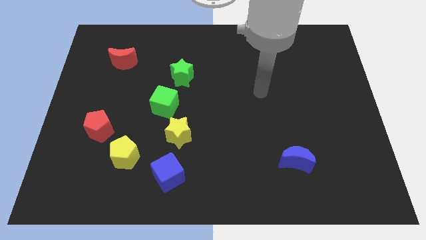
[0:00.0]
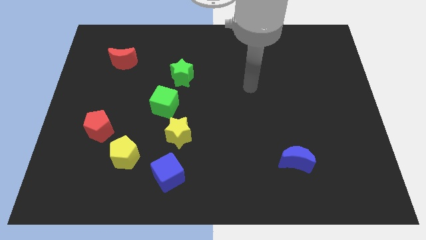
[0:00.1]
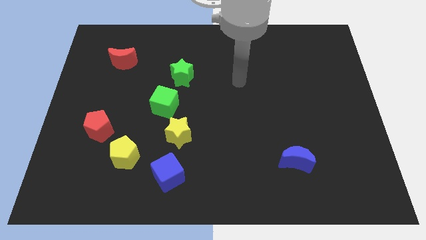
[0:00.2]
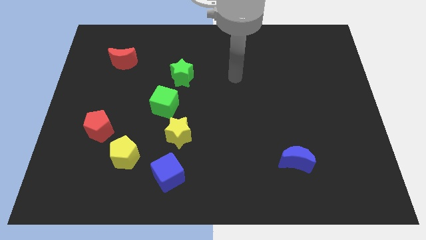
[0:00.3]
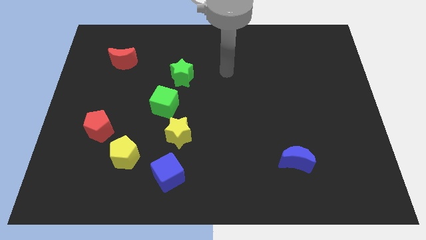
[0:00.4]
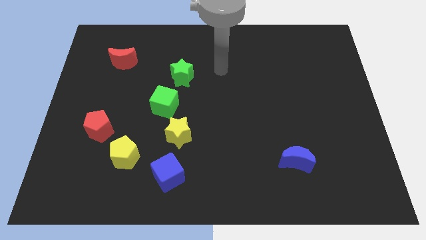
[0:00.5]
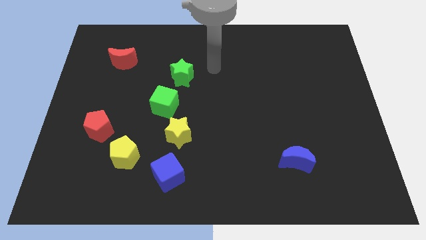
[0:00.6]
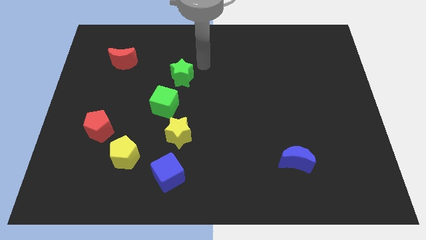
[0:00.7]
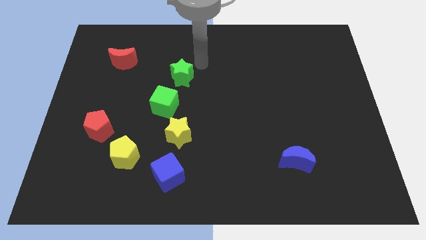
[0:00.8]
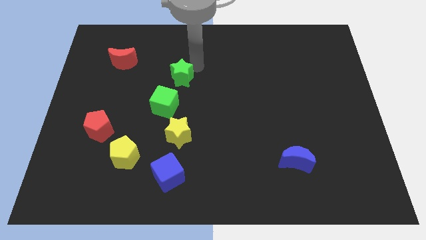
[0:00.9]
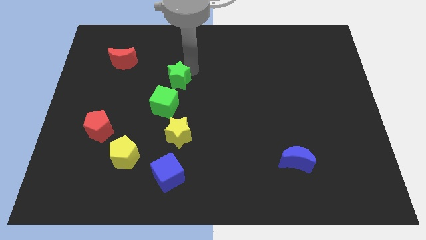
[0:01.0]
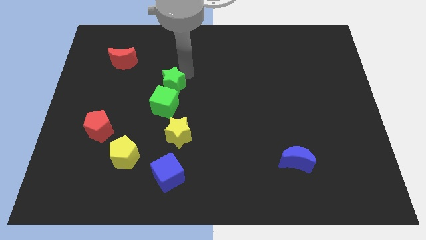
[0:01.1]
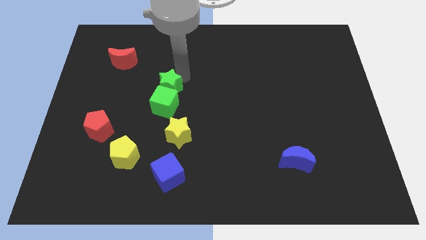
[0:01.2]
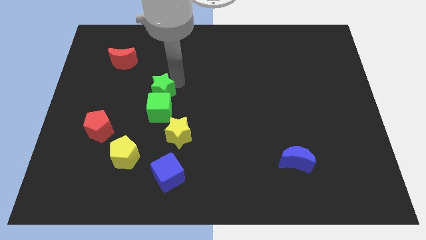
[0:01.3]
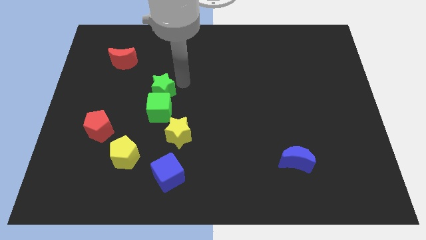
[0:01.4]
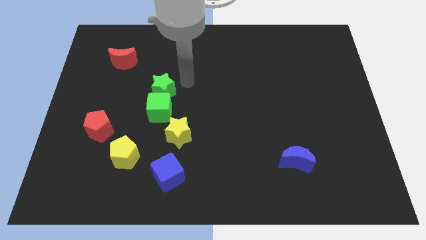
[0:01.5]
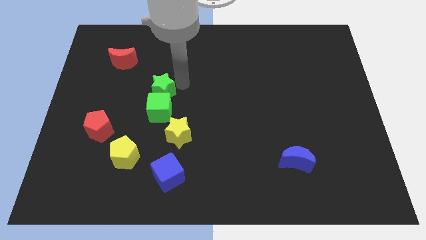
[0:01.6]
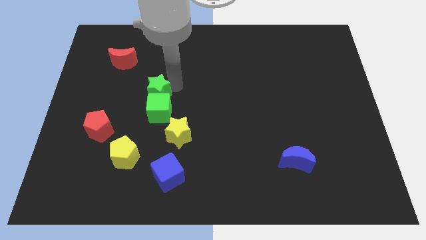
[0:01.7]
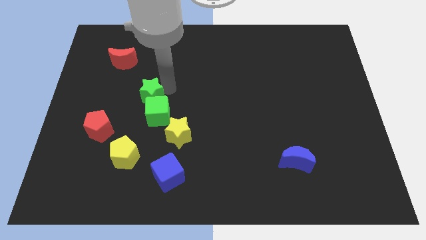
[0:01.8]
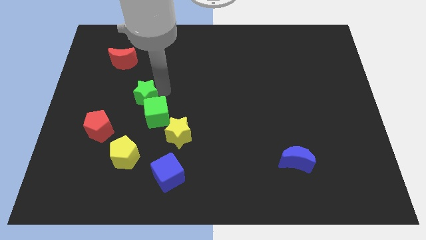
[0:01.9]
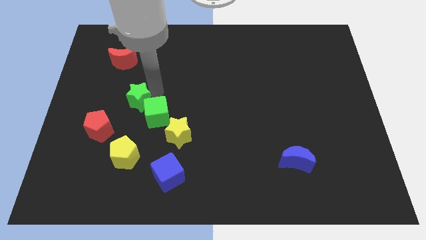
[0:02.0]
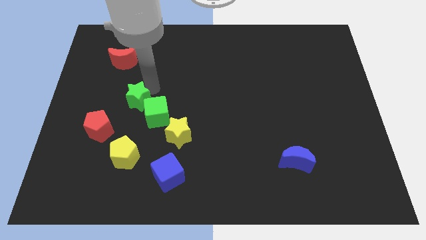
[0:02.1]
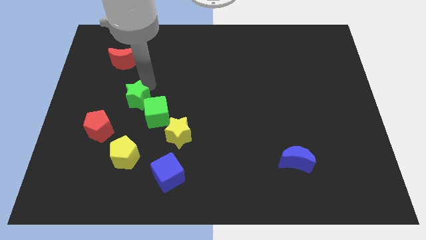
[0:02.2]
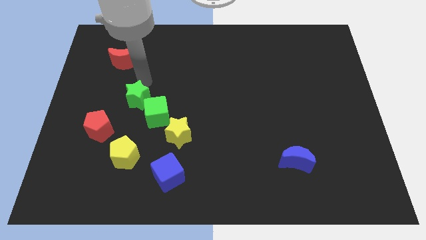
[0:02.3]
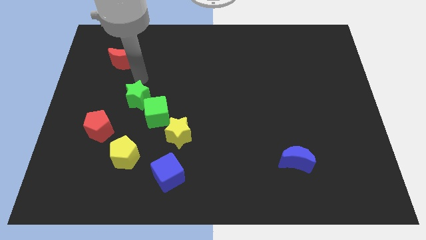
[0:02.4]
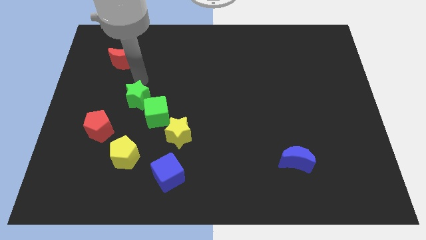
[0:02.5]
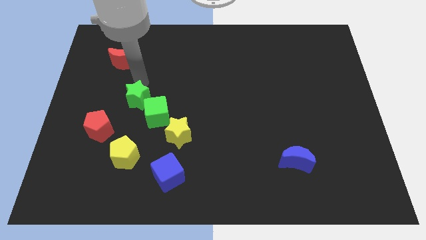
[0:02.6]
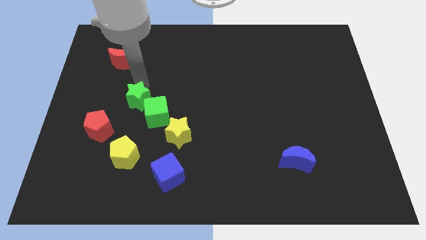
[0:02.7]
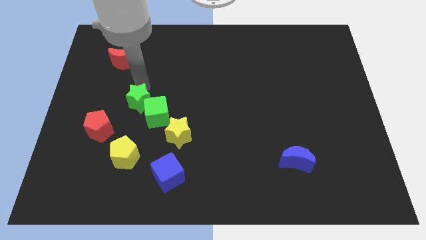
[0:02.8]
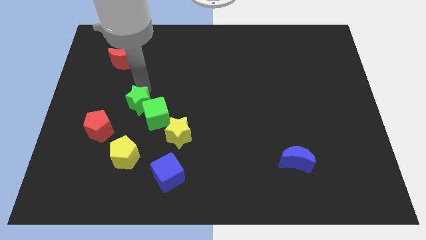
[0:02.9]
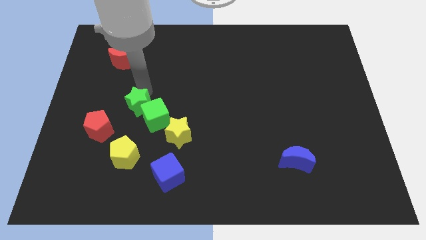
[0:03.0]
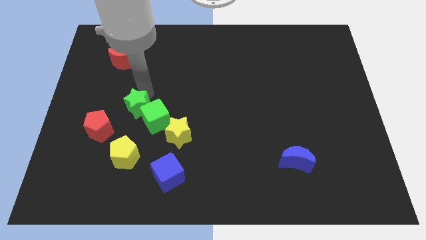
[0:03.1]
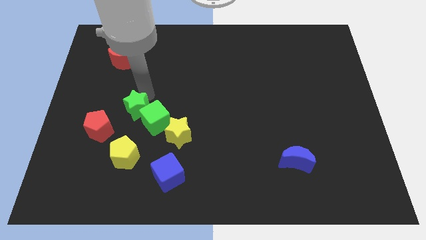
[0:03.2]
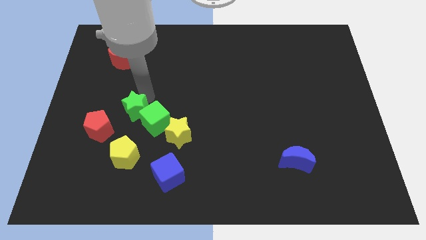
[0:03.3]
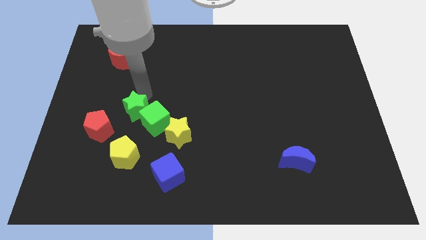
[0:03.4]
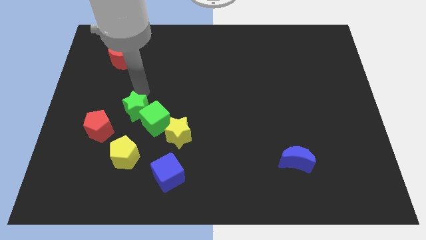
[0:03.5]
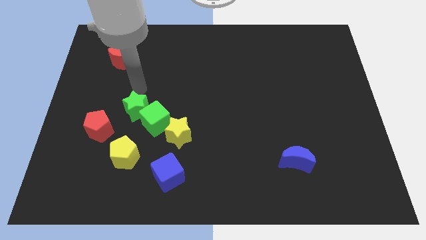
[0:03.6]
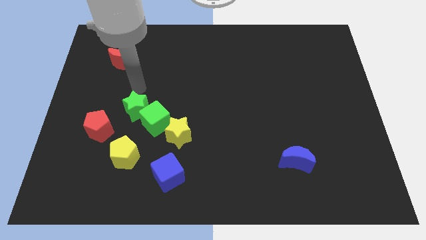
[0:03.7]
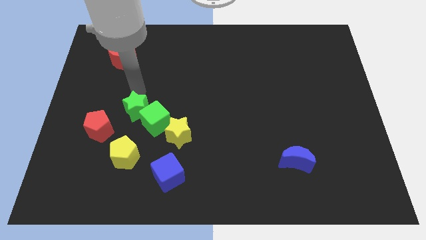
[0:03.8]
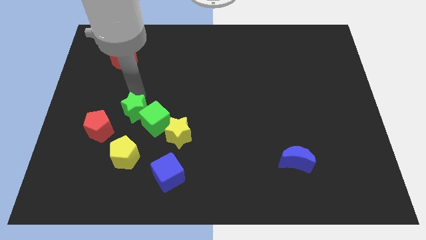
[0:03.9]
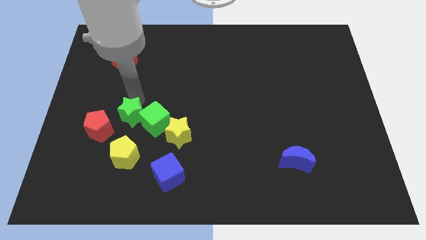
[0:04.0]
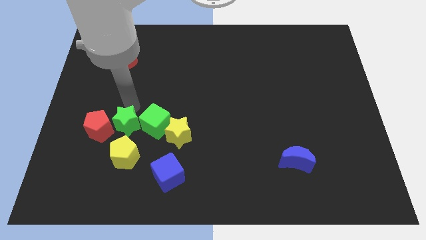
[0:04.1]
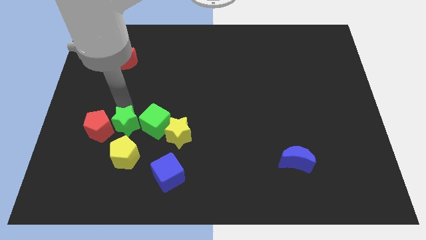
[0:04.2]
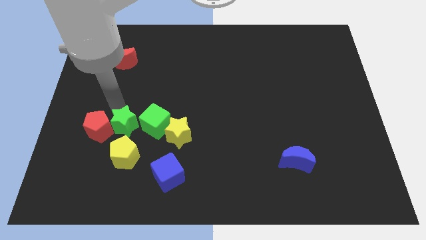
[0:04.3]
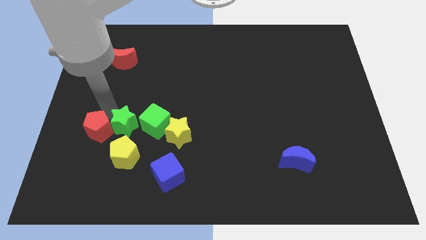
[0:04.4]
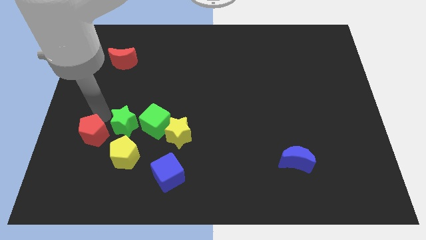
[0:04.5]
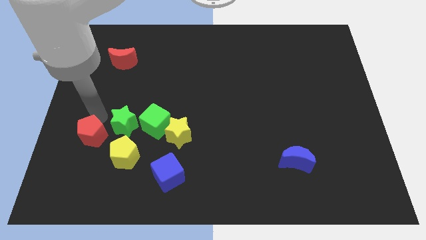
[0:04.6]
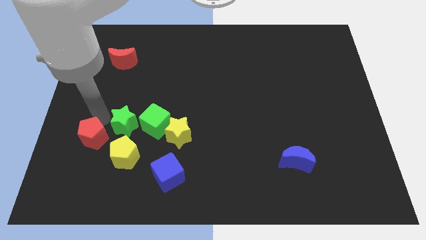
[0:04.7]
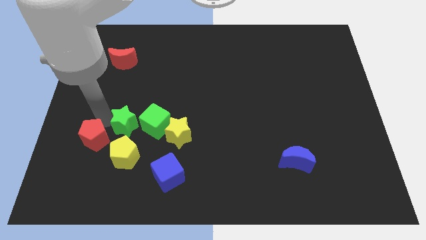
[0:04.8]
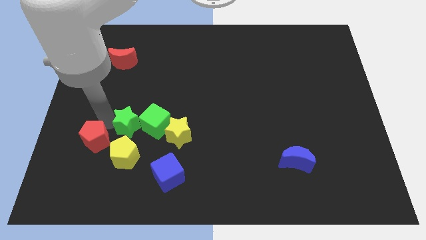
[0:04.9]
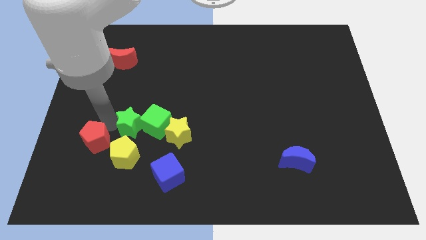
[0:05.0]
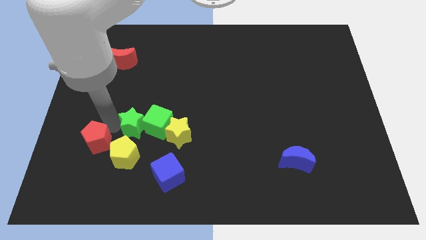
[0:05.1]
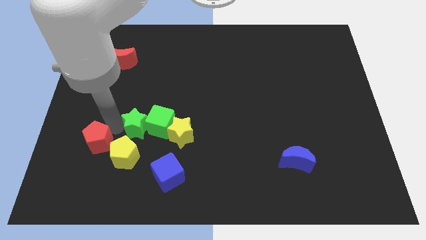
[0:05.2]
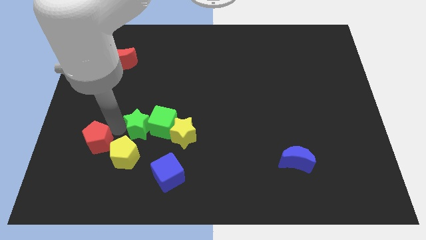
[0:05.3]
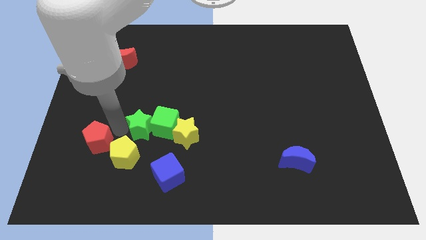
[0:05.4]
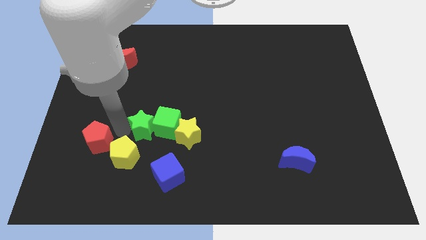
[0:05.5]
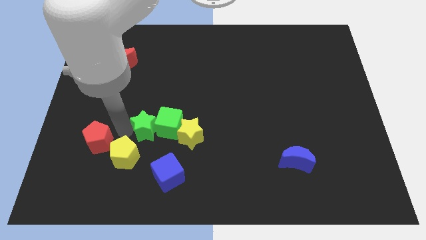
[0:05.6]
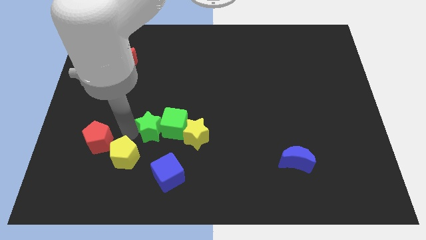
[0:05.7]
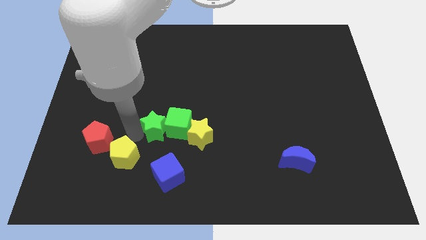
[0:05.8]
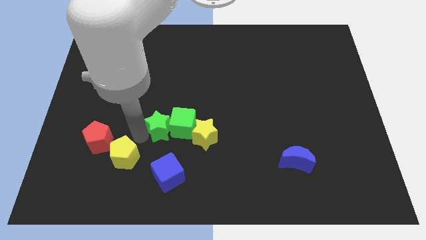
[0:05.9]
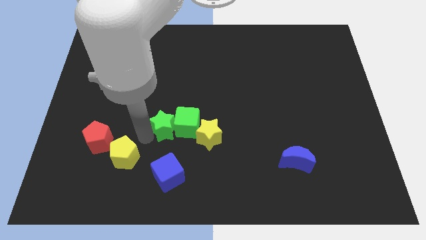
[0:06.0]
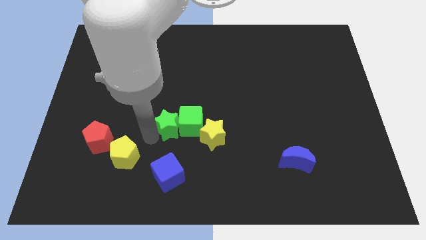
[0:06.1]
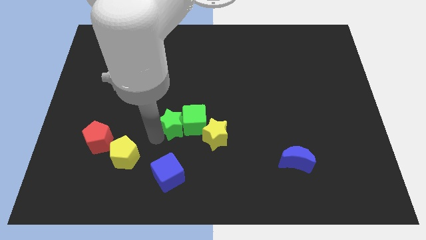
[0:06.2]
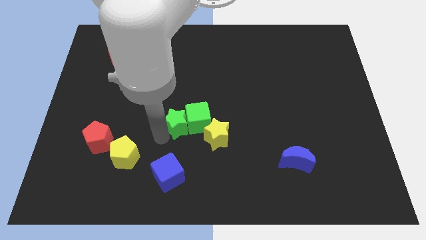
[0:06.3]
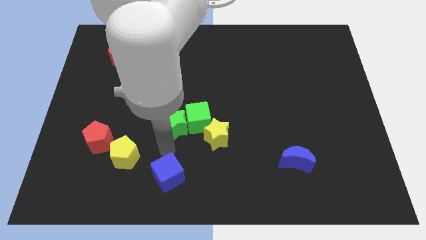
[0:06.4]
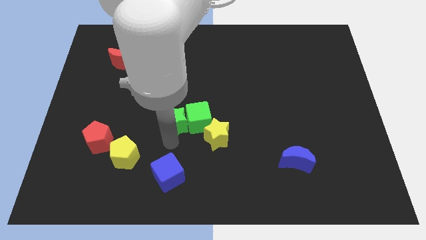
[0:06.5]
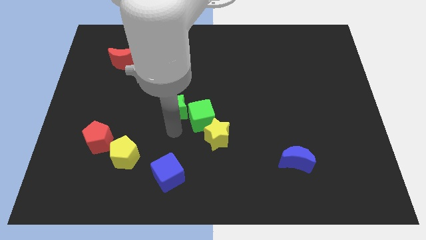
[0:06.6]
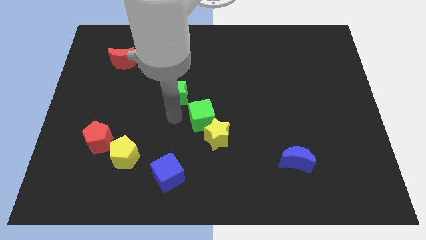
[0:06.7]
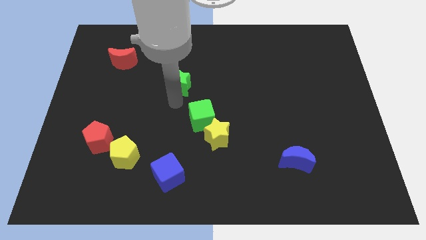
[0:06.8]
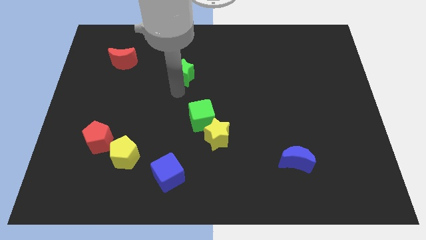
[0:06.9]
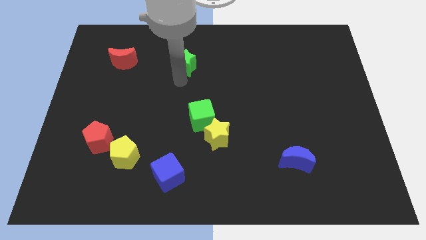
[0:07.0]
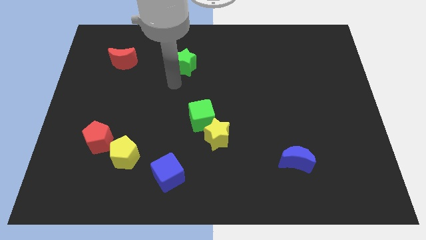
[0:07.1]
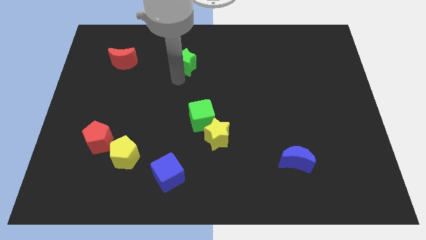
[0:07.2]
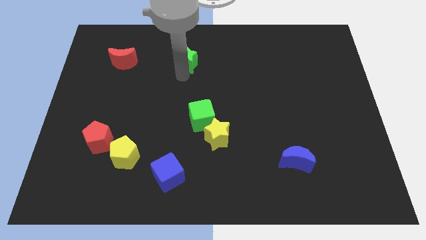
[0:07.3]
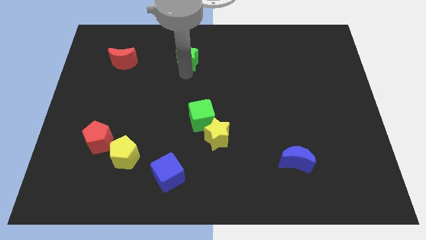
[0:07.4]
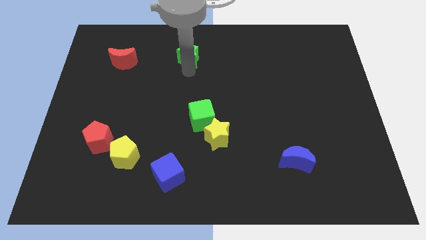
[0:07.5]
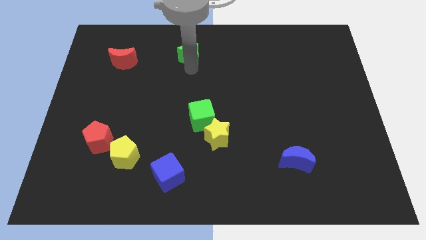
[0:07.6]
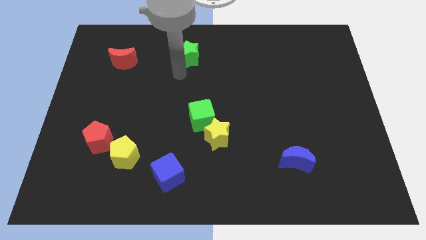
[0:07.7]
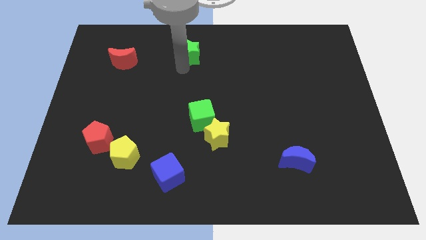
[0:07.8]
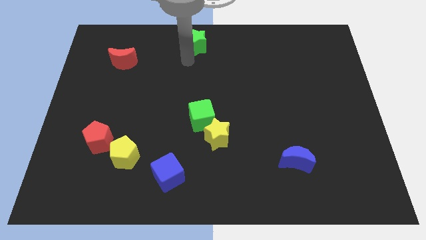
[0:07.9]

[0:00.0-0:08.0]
move the green star to the top side
